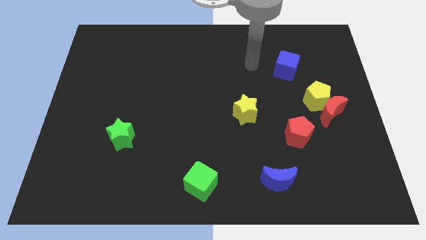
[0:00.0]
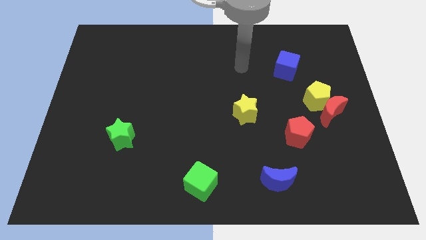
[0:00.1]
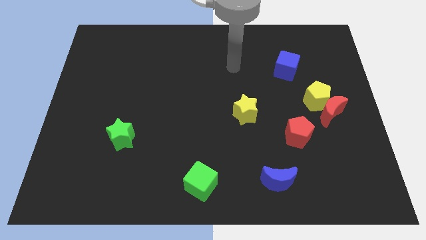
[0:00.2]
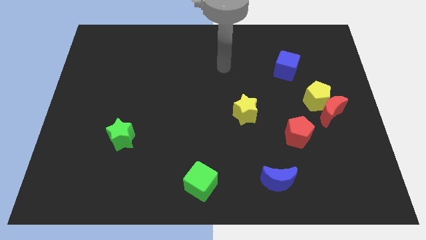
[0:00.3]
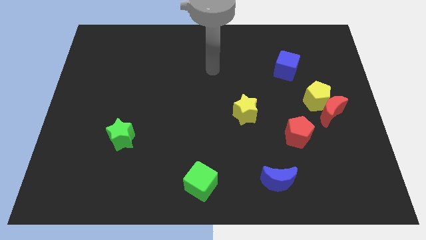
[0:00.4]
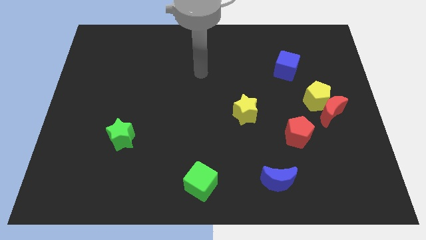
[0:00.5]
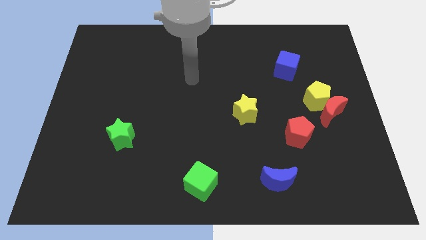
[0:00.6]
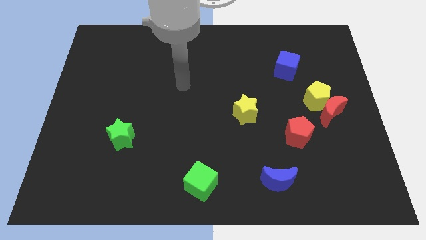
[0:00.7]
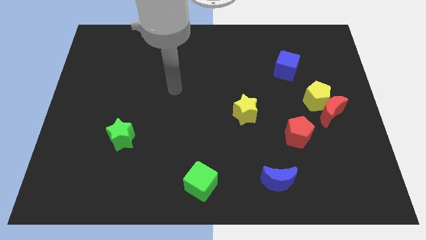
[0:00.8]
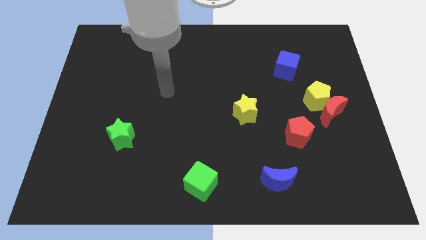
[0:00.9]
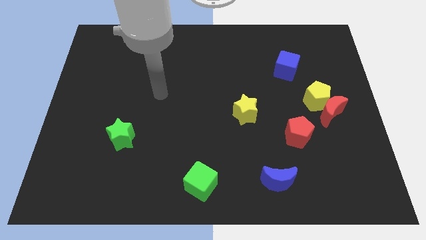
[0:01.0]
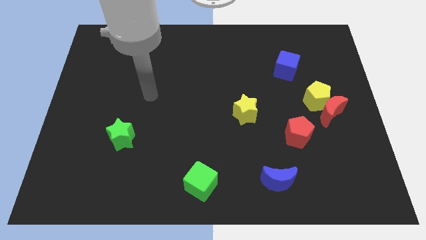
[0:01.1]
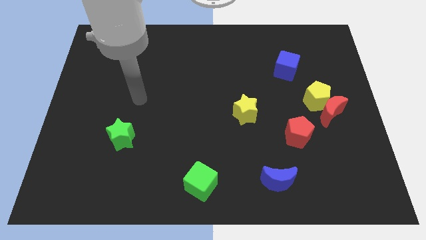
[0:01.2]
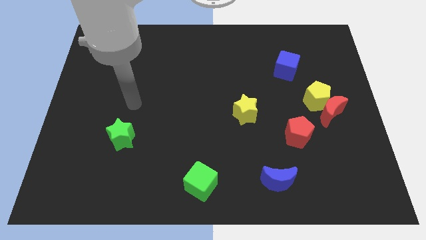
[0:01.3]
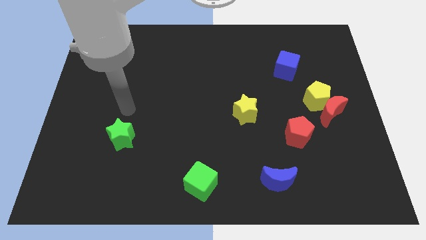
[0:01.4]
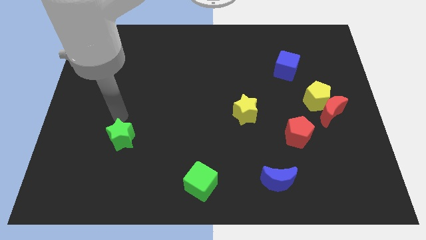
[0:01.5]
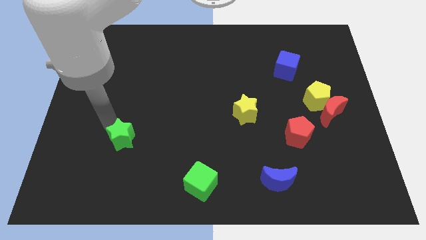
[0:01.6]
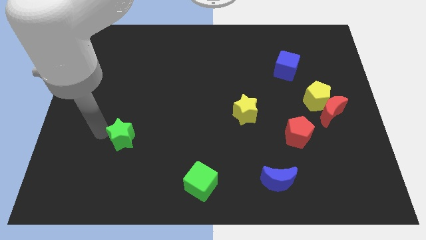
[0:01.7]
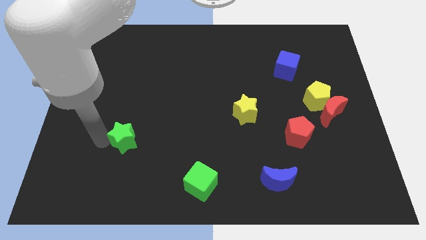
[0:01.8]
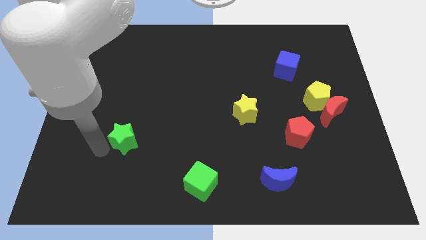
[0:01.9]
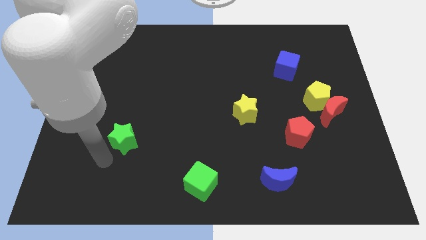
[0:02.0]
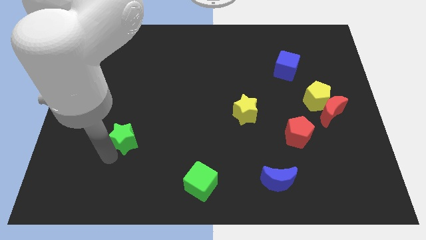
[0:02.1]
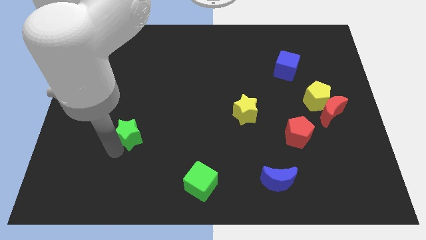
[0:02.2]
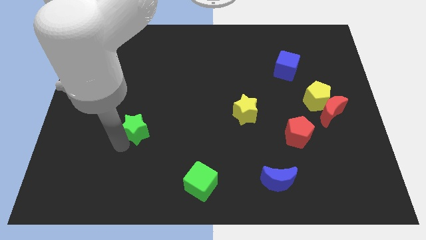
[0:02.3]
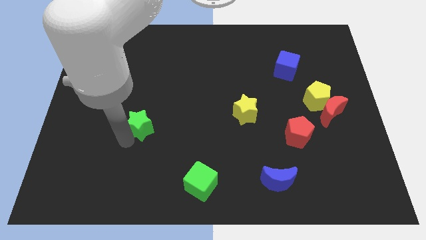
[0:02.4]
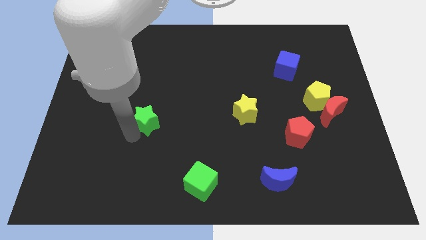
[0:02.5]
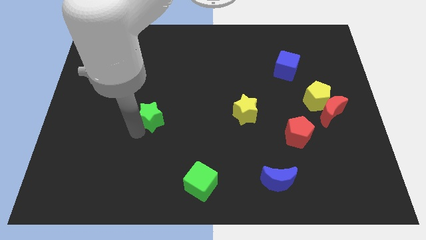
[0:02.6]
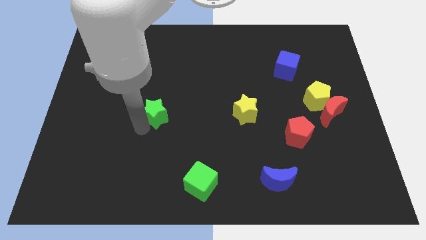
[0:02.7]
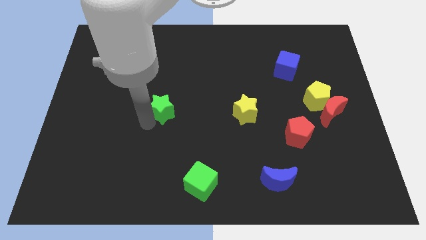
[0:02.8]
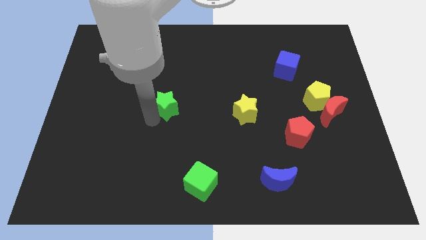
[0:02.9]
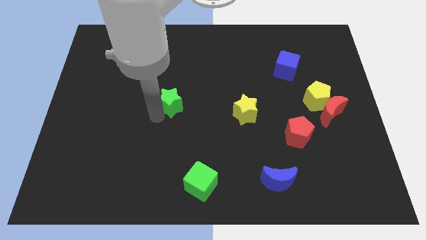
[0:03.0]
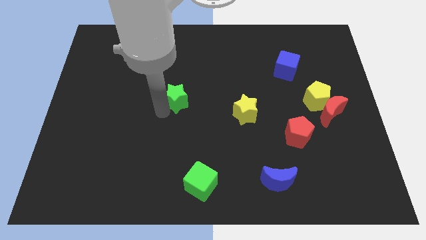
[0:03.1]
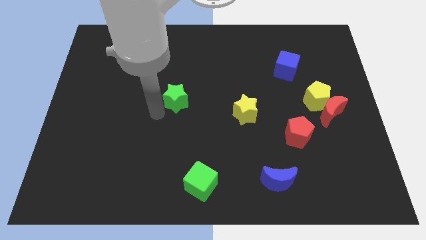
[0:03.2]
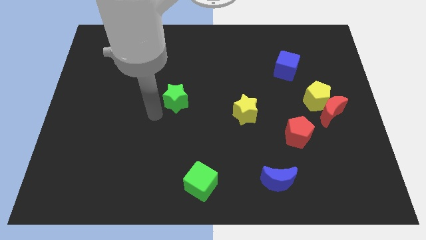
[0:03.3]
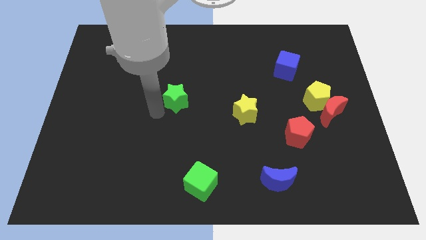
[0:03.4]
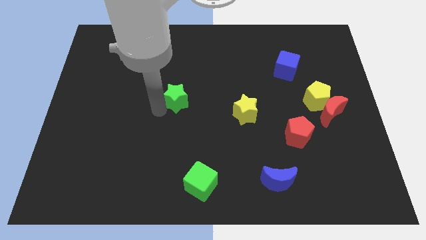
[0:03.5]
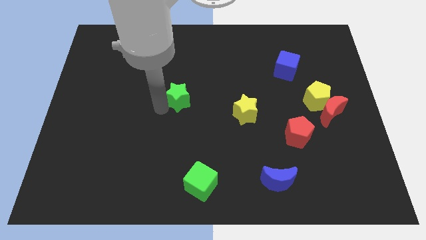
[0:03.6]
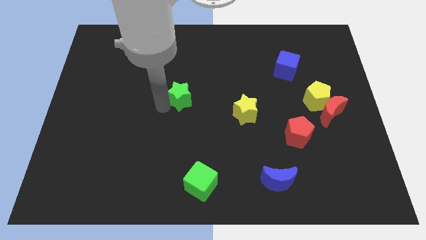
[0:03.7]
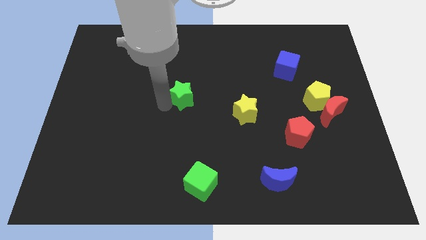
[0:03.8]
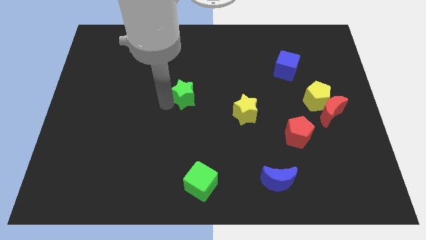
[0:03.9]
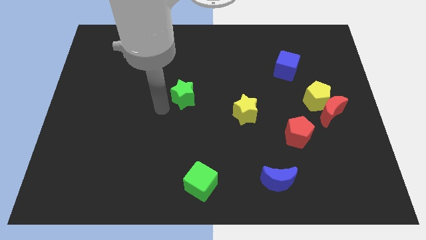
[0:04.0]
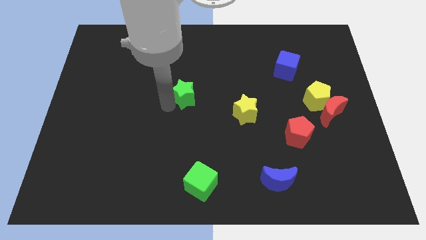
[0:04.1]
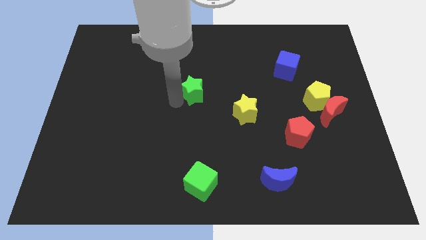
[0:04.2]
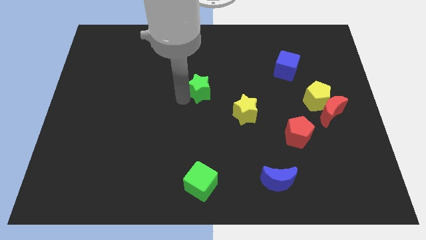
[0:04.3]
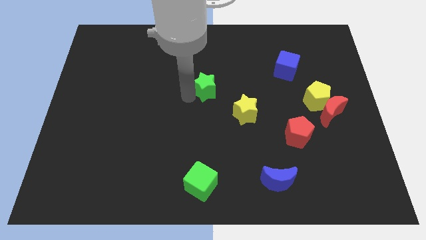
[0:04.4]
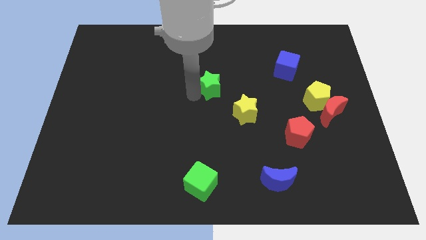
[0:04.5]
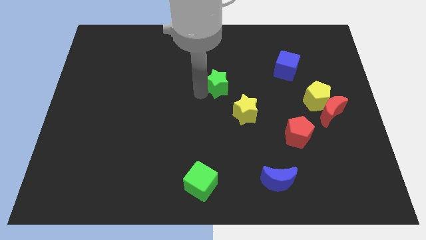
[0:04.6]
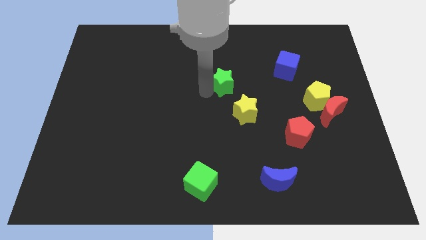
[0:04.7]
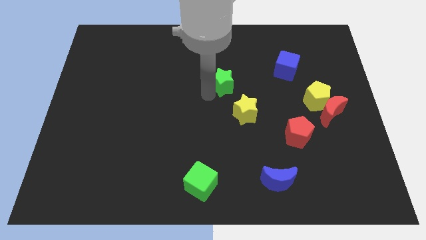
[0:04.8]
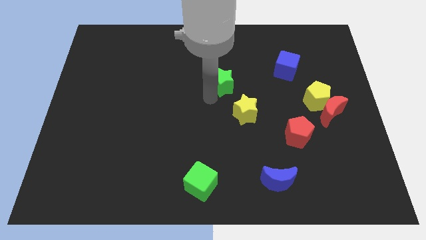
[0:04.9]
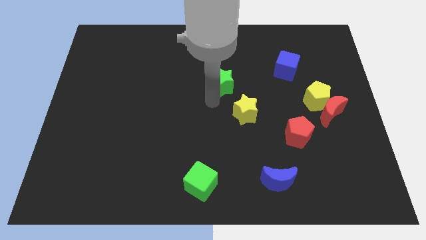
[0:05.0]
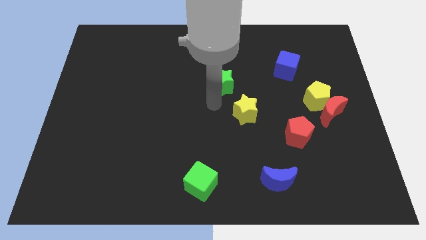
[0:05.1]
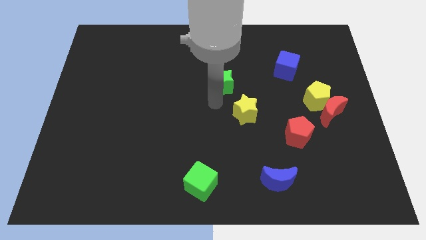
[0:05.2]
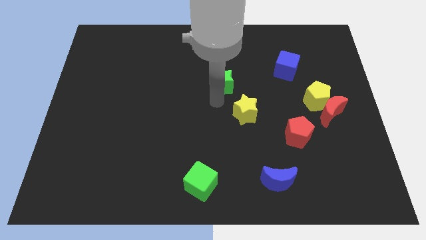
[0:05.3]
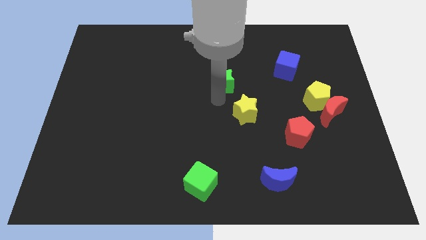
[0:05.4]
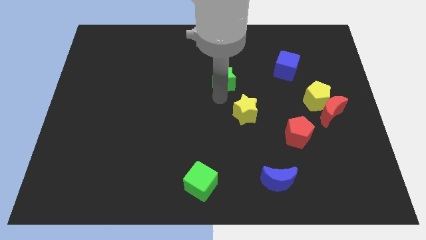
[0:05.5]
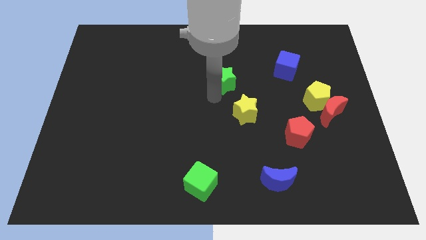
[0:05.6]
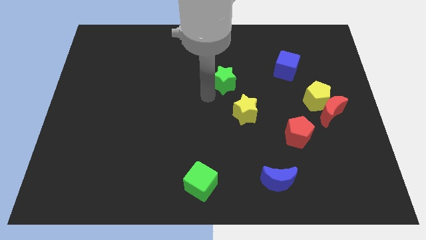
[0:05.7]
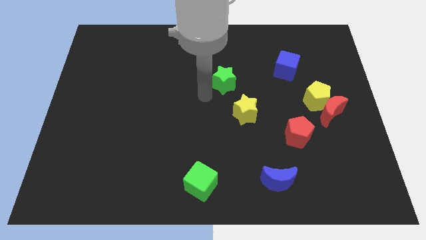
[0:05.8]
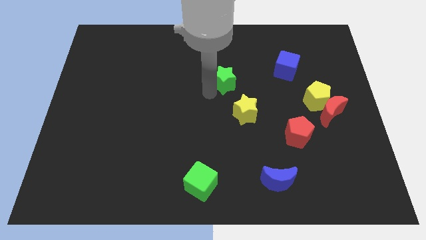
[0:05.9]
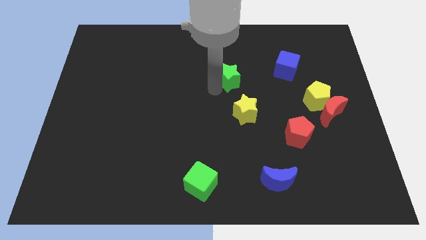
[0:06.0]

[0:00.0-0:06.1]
put the green star just left of the blue cube

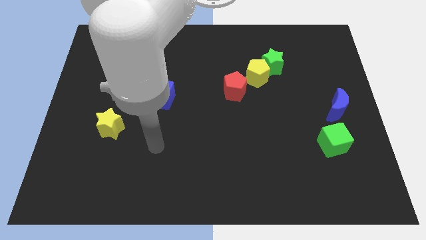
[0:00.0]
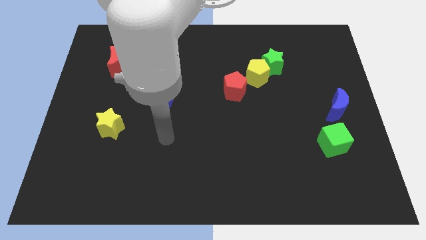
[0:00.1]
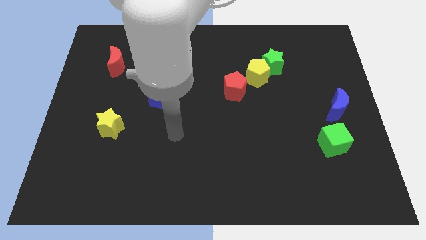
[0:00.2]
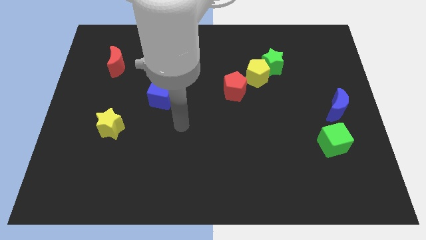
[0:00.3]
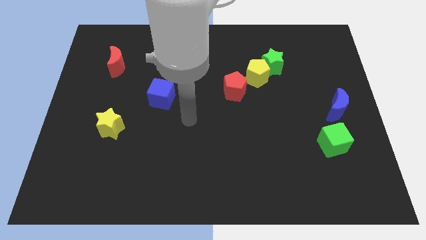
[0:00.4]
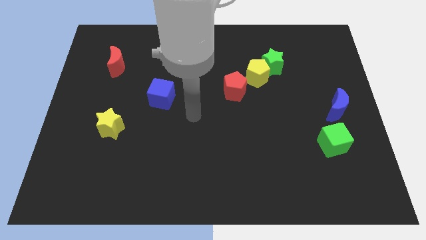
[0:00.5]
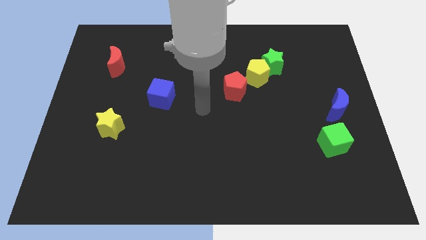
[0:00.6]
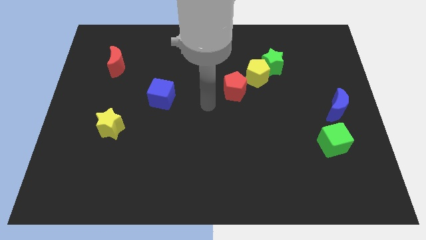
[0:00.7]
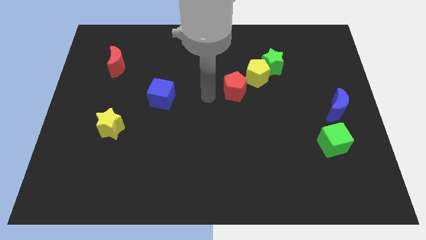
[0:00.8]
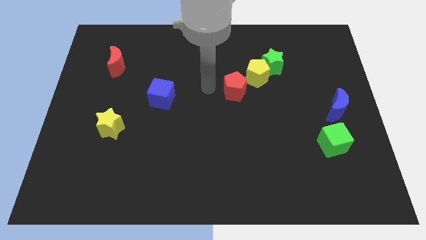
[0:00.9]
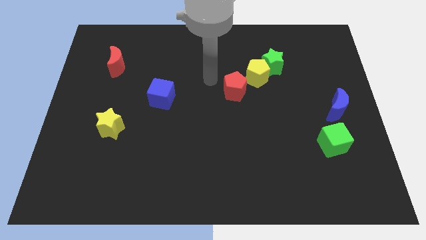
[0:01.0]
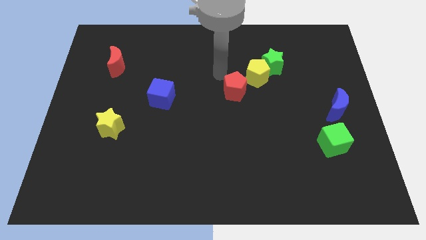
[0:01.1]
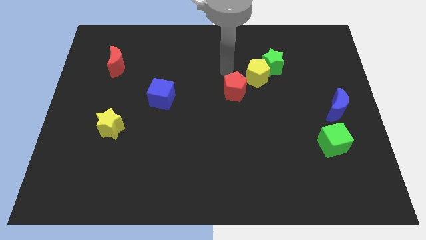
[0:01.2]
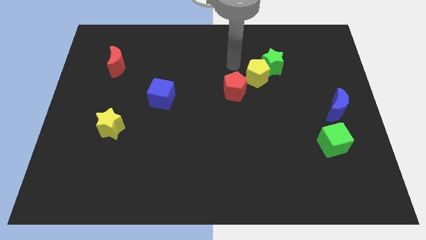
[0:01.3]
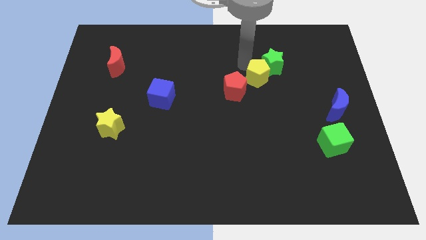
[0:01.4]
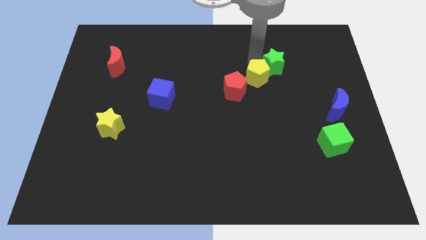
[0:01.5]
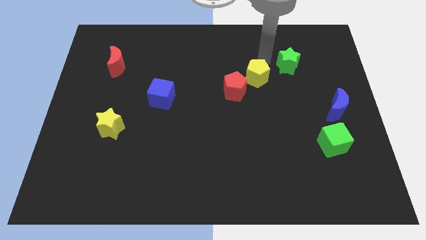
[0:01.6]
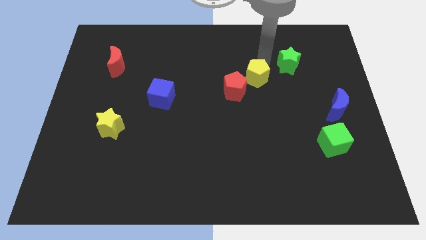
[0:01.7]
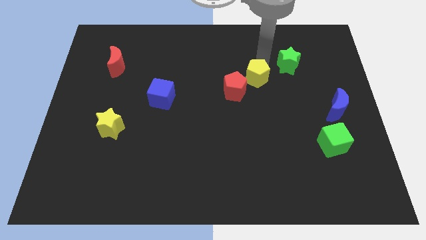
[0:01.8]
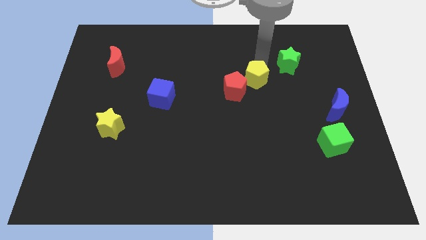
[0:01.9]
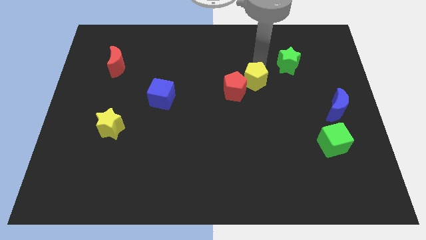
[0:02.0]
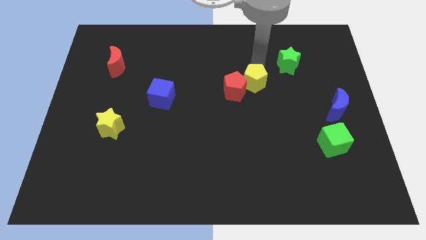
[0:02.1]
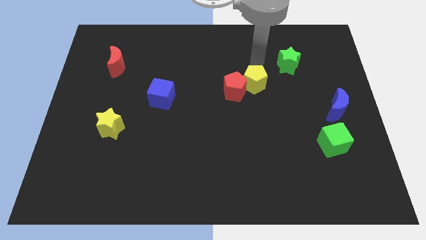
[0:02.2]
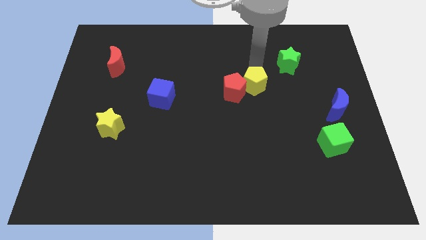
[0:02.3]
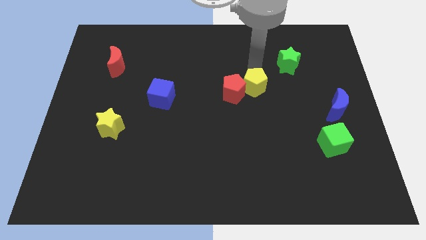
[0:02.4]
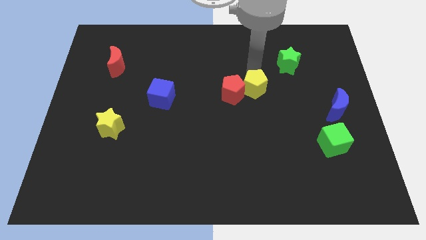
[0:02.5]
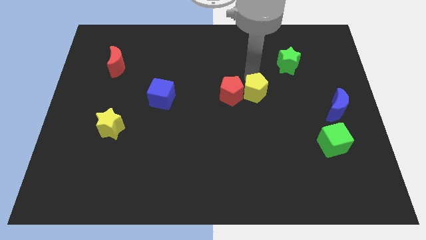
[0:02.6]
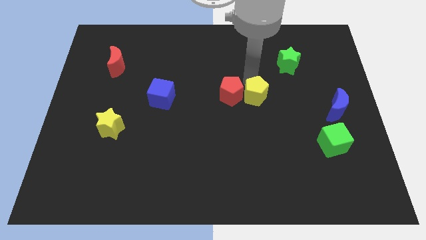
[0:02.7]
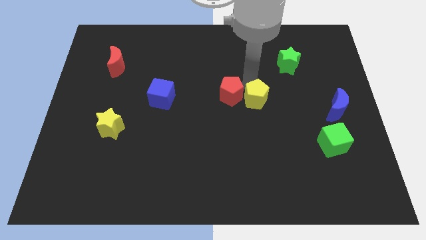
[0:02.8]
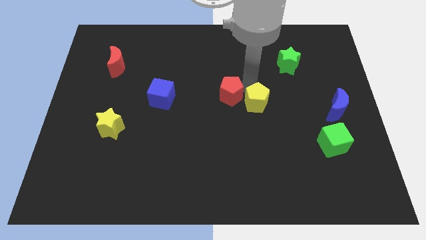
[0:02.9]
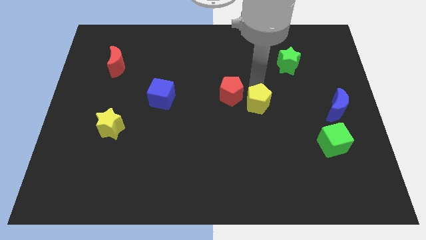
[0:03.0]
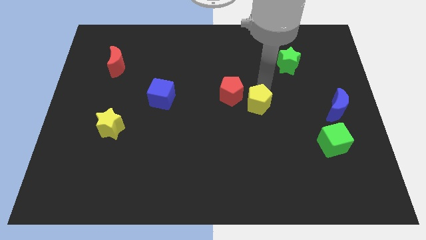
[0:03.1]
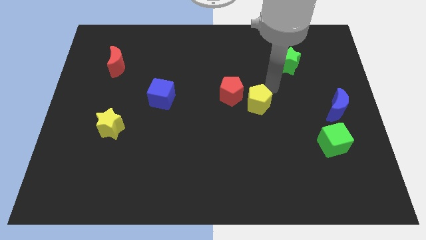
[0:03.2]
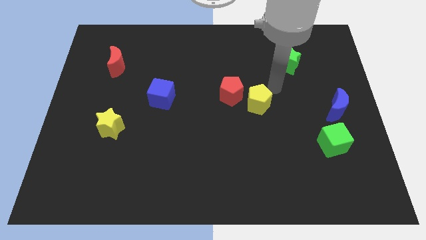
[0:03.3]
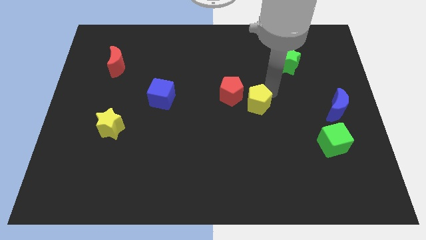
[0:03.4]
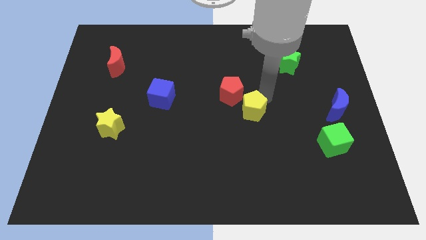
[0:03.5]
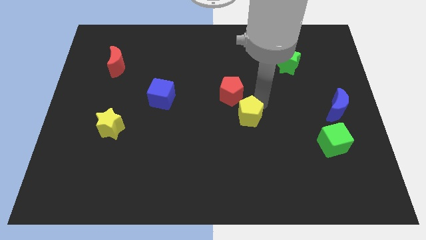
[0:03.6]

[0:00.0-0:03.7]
push the yellow pentagon to the bottom side of the red pentagon
